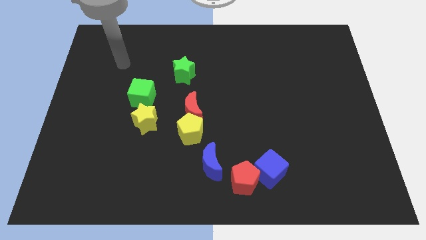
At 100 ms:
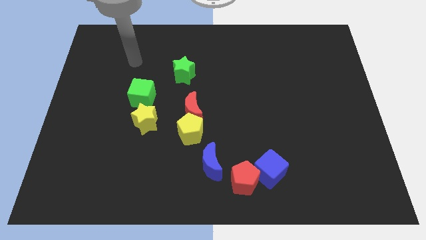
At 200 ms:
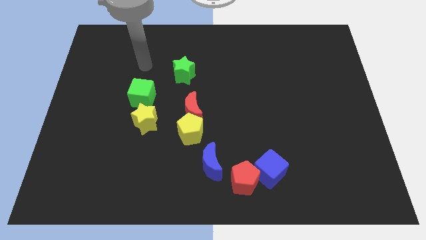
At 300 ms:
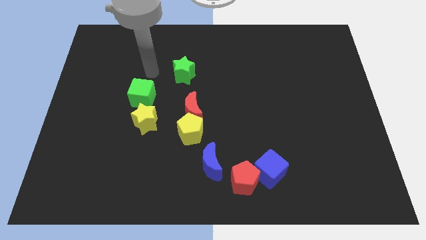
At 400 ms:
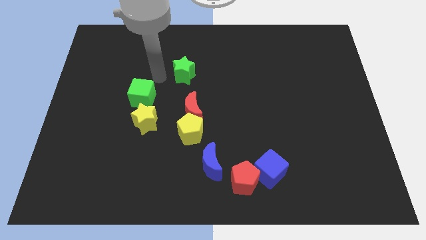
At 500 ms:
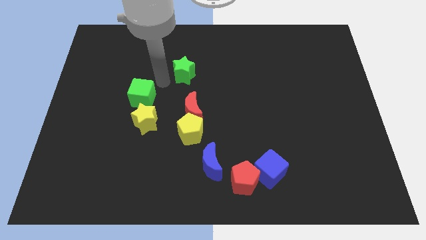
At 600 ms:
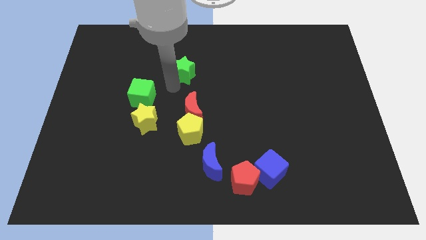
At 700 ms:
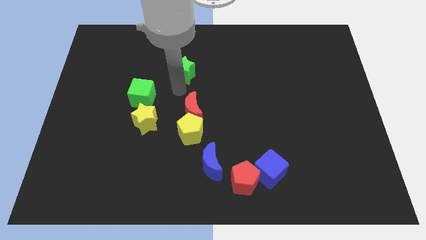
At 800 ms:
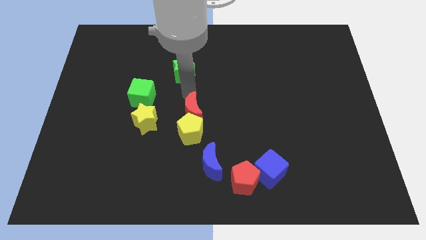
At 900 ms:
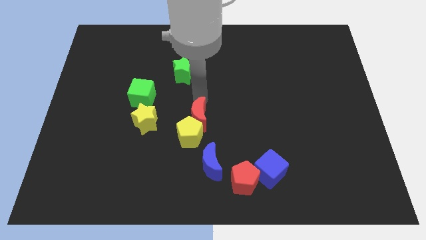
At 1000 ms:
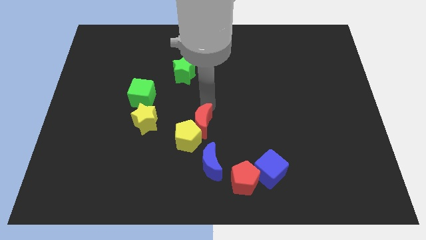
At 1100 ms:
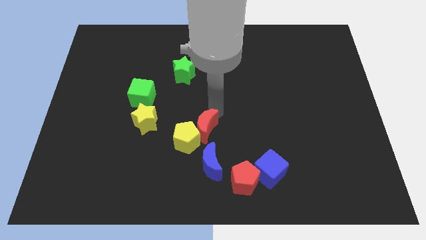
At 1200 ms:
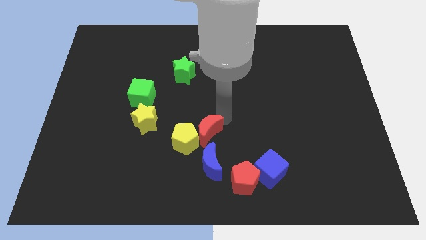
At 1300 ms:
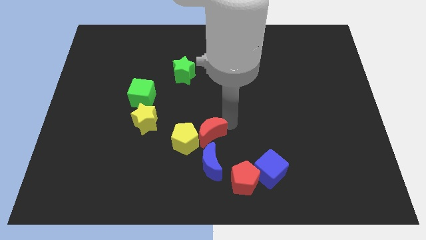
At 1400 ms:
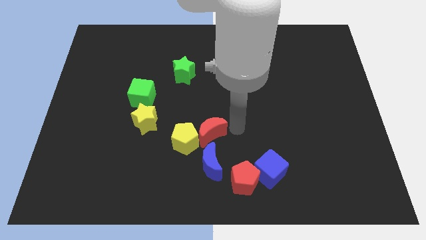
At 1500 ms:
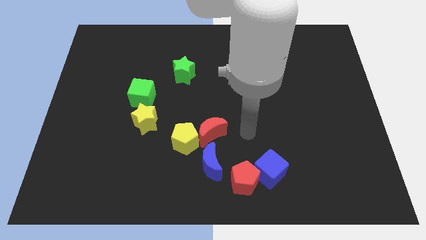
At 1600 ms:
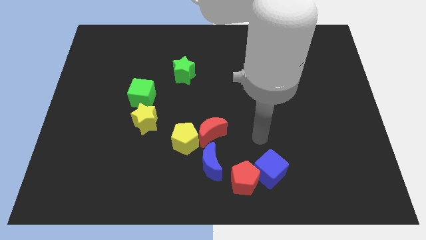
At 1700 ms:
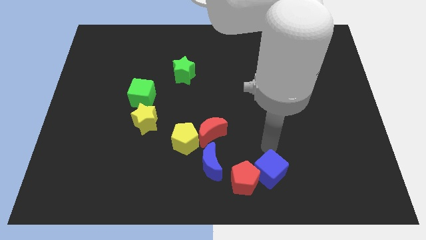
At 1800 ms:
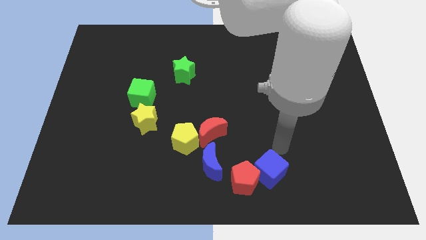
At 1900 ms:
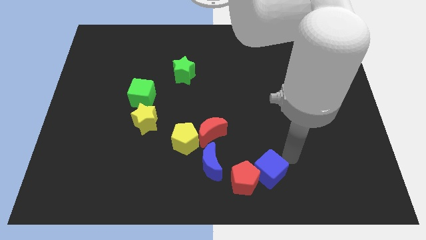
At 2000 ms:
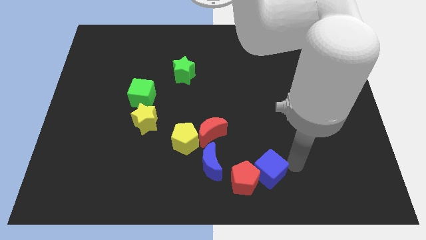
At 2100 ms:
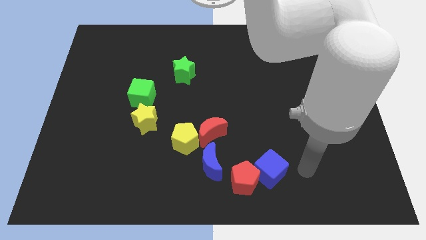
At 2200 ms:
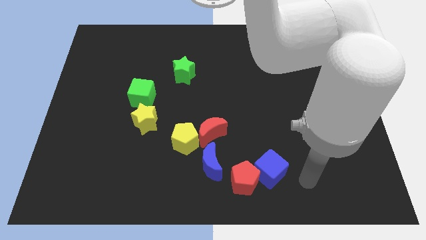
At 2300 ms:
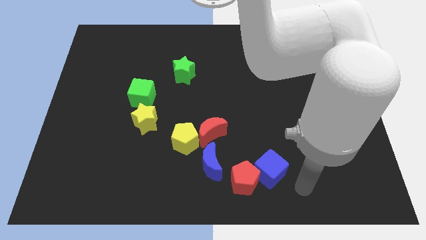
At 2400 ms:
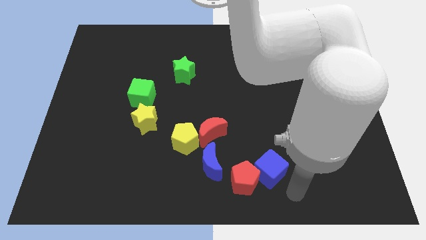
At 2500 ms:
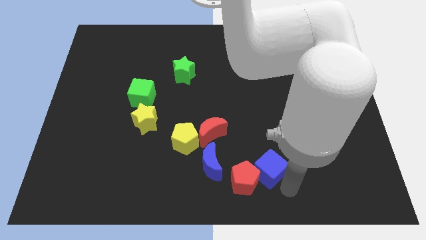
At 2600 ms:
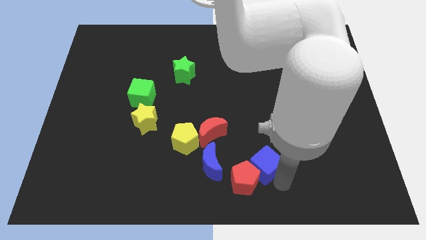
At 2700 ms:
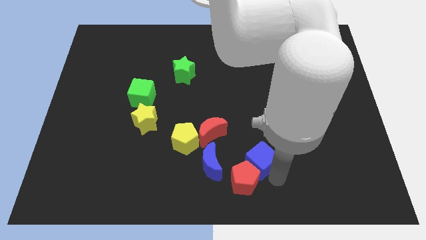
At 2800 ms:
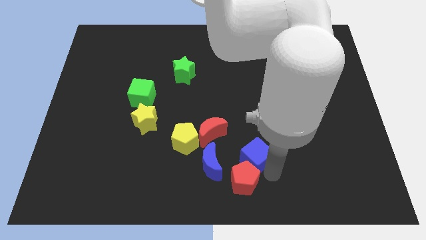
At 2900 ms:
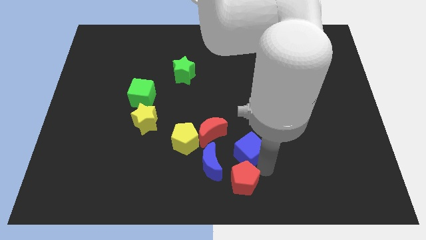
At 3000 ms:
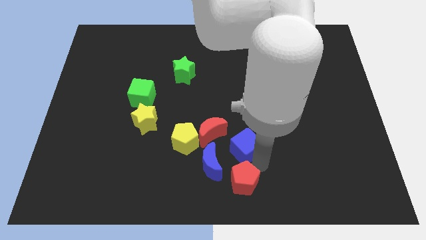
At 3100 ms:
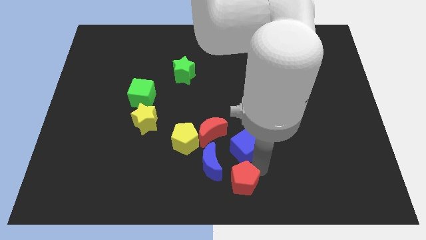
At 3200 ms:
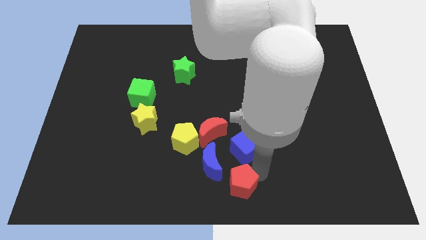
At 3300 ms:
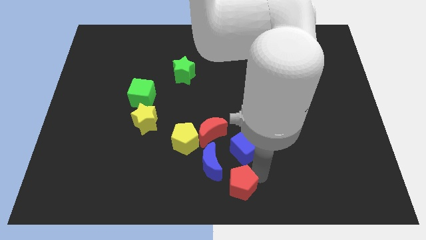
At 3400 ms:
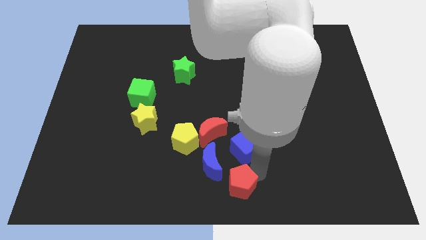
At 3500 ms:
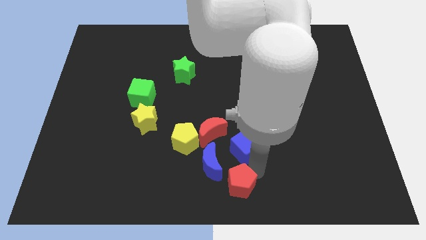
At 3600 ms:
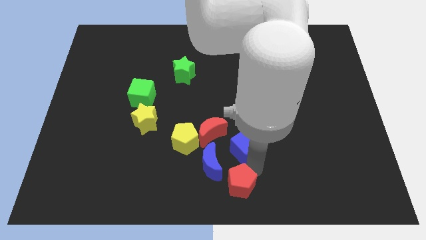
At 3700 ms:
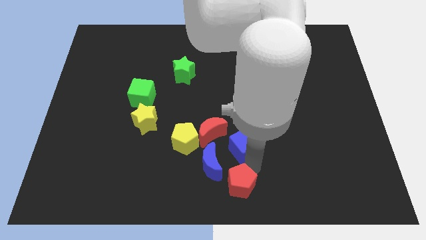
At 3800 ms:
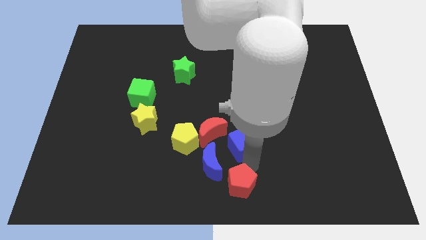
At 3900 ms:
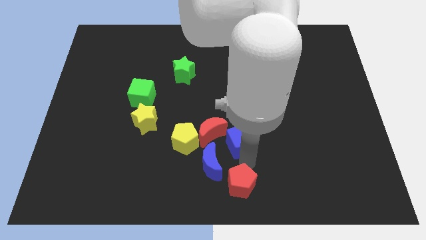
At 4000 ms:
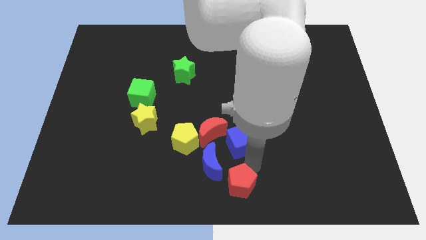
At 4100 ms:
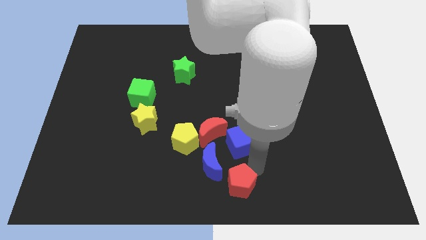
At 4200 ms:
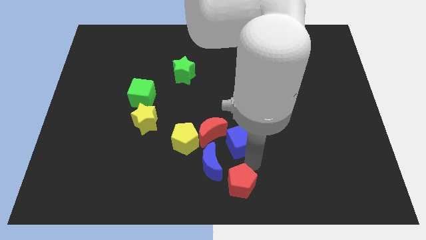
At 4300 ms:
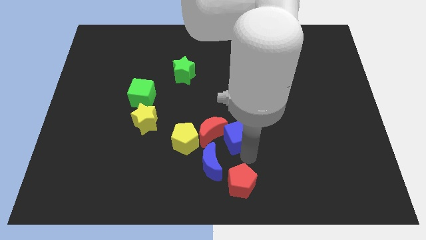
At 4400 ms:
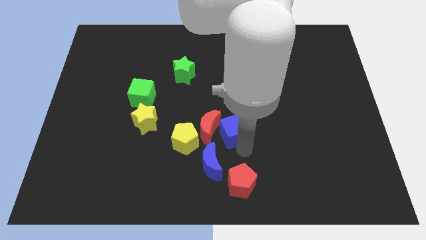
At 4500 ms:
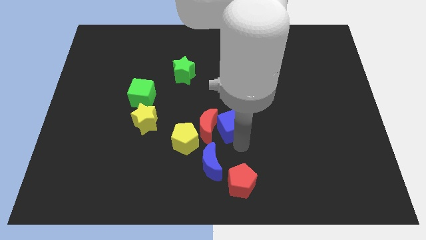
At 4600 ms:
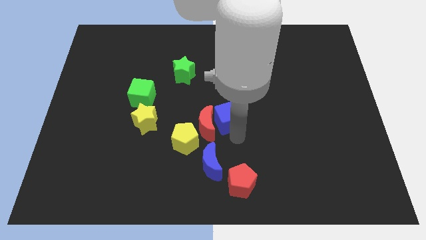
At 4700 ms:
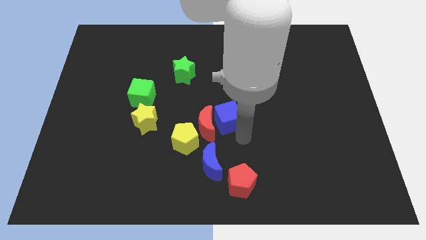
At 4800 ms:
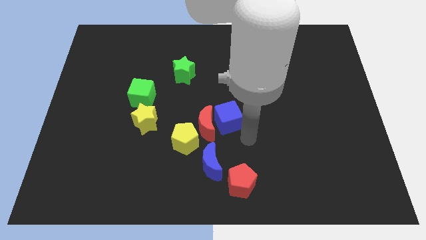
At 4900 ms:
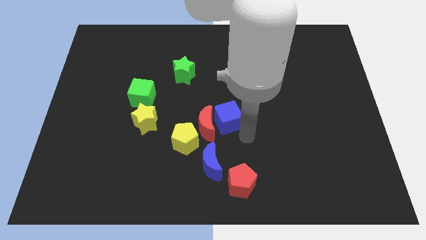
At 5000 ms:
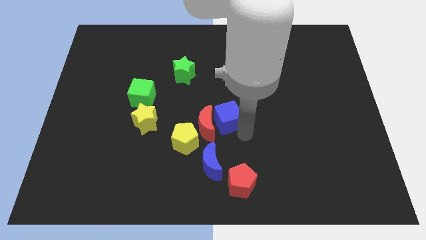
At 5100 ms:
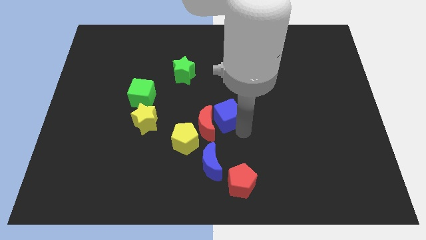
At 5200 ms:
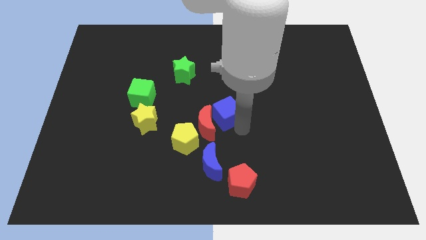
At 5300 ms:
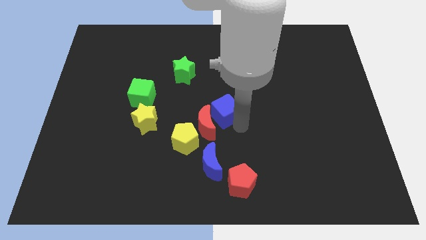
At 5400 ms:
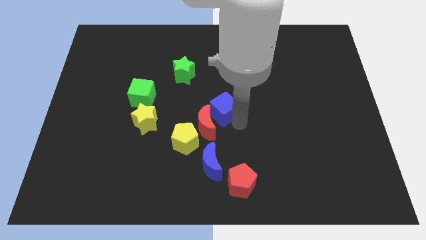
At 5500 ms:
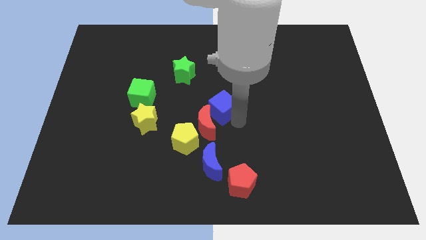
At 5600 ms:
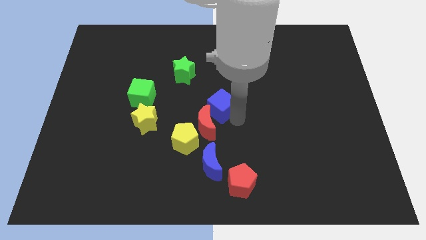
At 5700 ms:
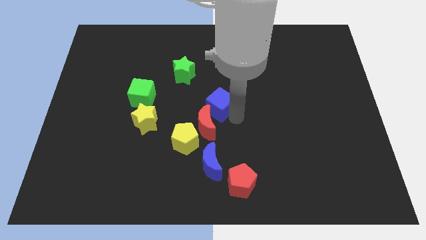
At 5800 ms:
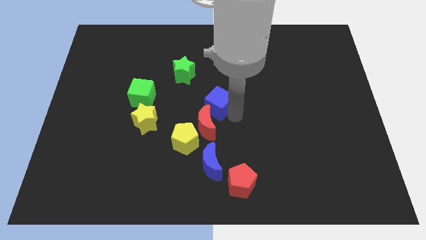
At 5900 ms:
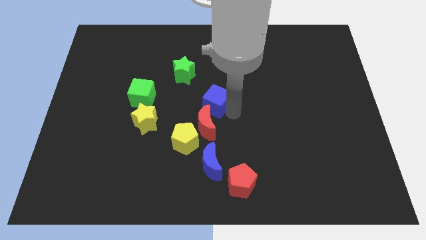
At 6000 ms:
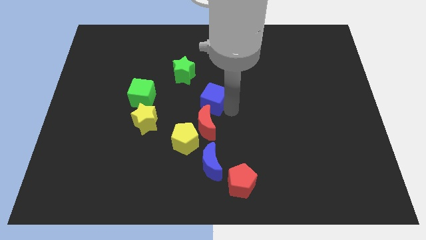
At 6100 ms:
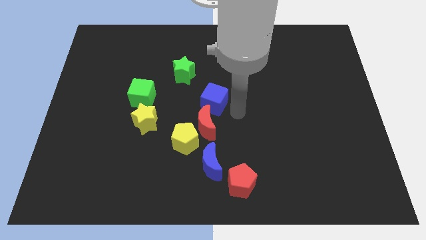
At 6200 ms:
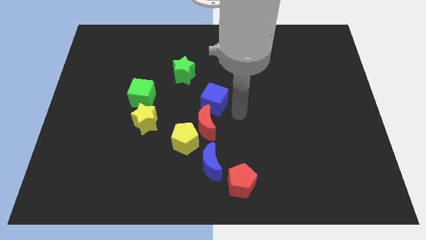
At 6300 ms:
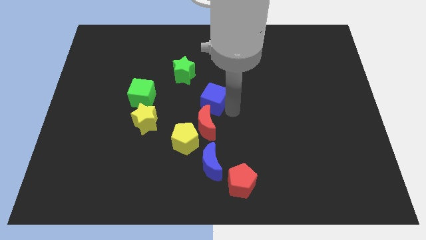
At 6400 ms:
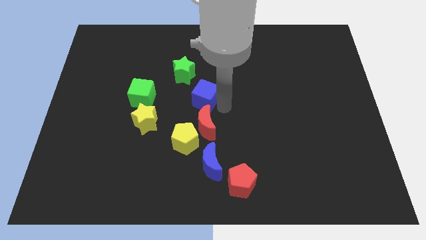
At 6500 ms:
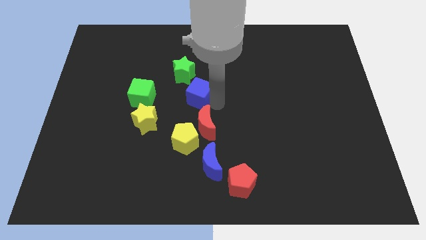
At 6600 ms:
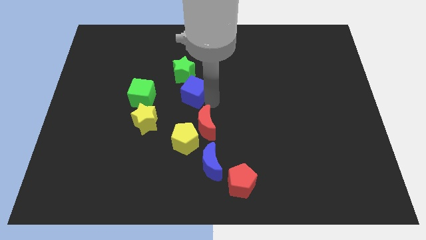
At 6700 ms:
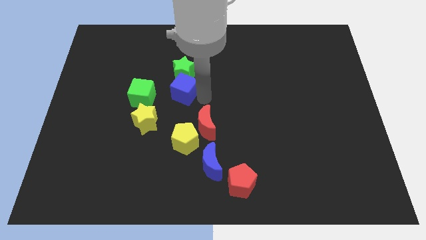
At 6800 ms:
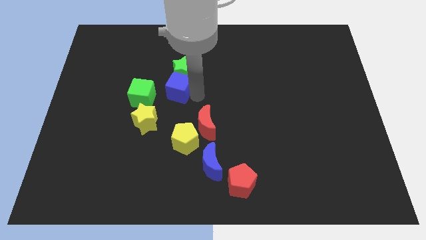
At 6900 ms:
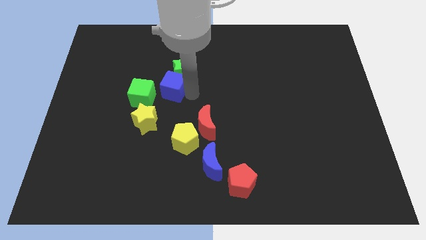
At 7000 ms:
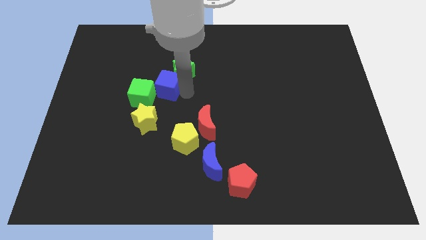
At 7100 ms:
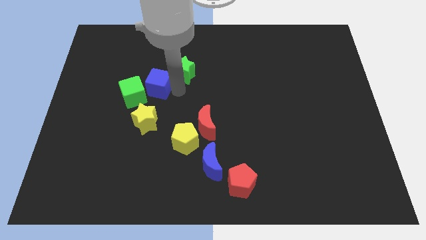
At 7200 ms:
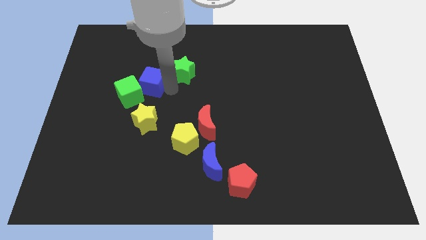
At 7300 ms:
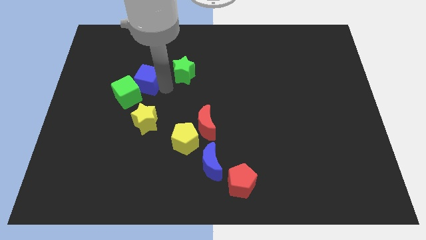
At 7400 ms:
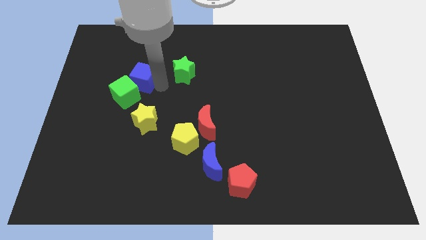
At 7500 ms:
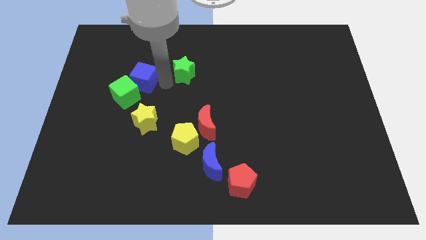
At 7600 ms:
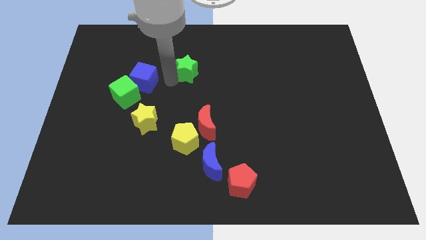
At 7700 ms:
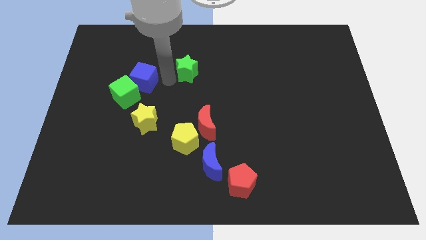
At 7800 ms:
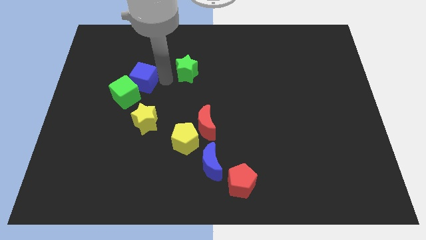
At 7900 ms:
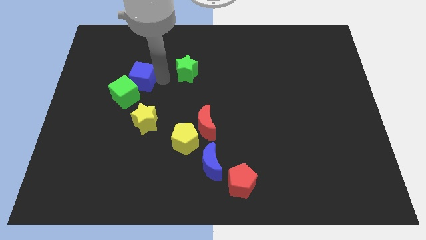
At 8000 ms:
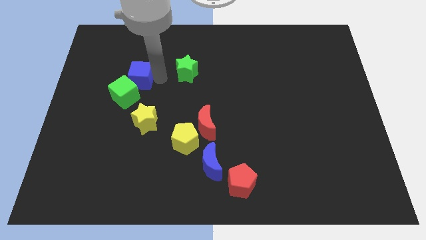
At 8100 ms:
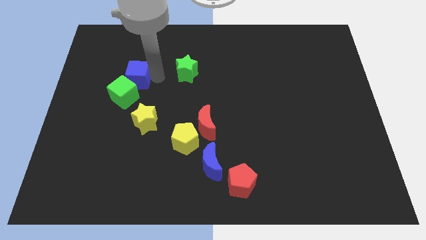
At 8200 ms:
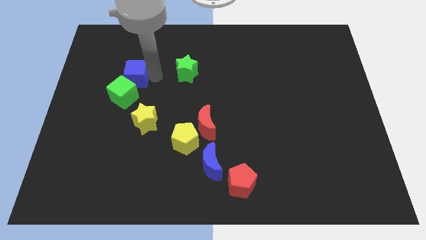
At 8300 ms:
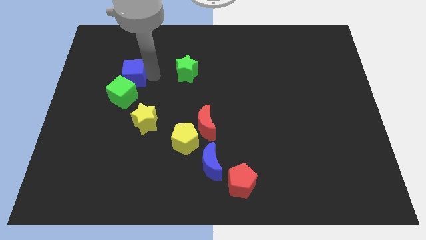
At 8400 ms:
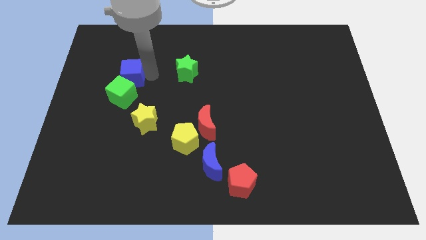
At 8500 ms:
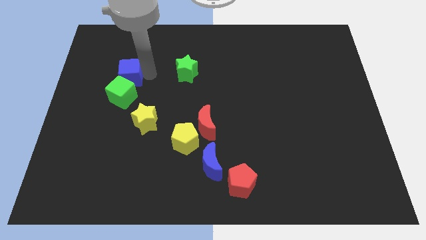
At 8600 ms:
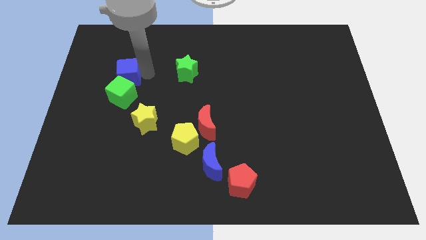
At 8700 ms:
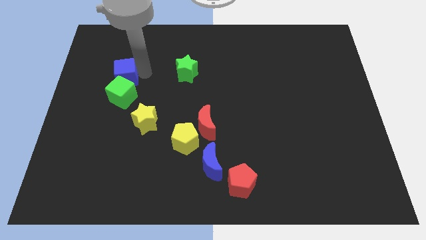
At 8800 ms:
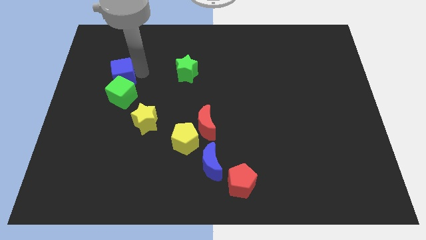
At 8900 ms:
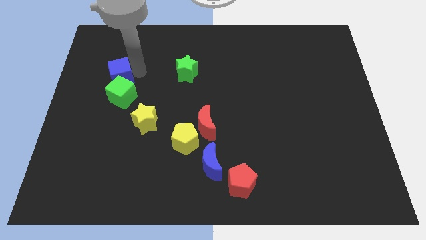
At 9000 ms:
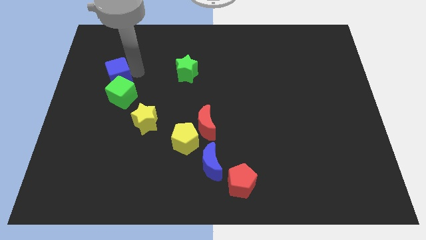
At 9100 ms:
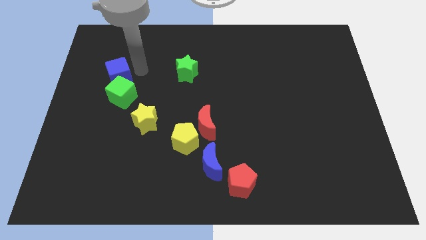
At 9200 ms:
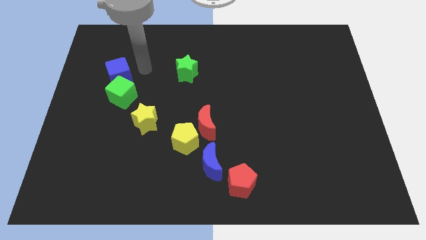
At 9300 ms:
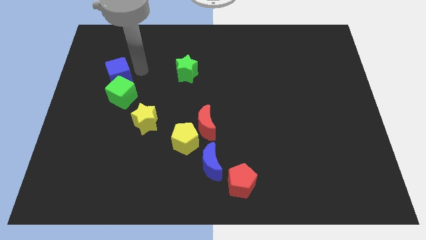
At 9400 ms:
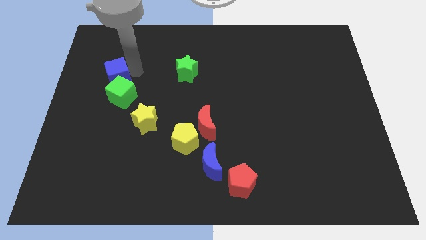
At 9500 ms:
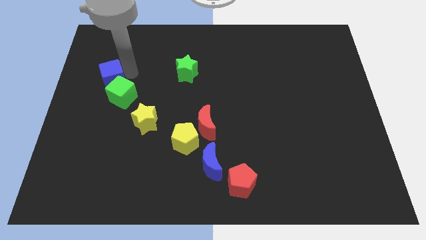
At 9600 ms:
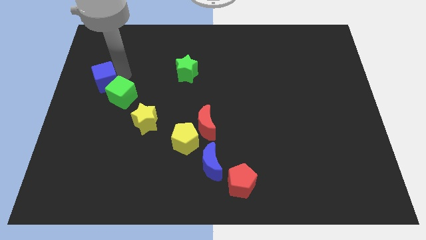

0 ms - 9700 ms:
push the blue cube to the left side of the board
